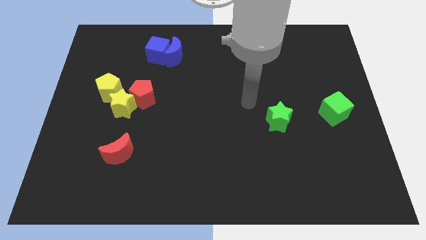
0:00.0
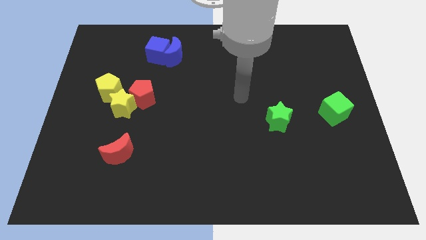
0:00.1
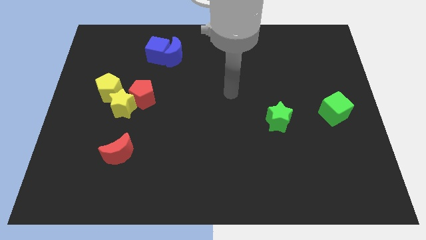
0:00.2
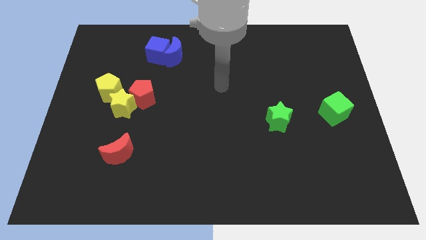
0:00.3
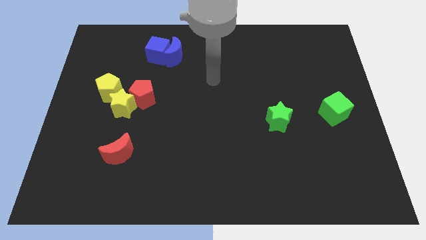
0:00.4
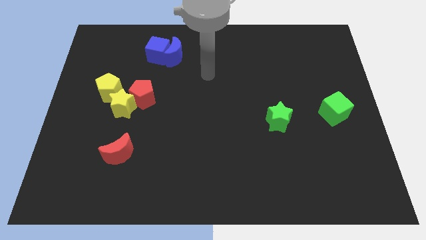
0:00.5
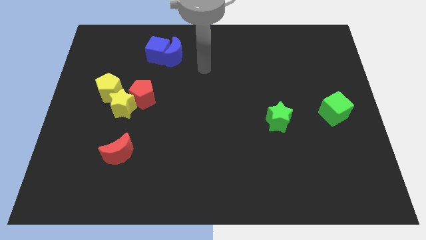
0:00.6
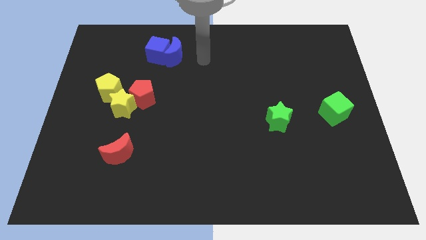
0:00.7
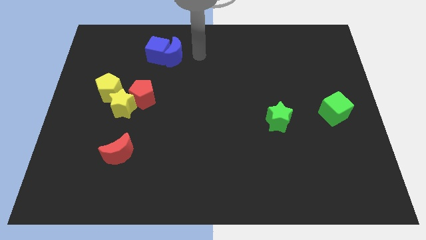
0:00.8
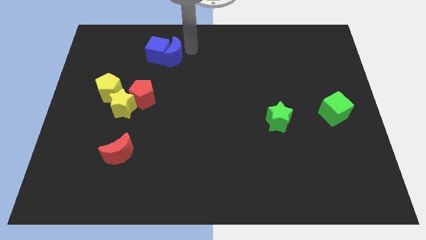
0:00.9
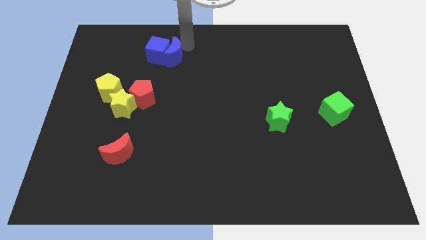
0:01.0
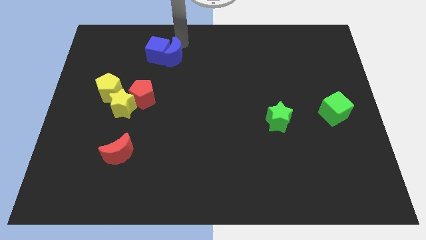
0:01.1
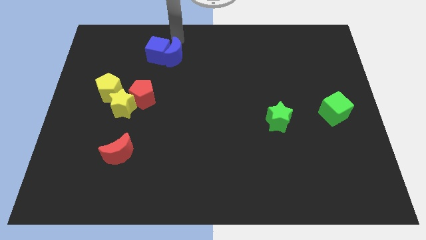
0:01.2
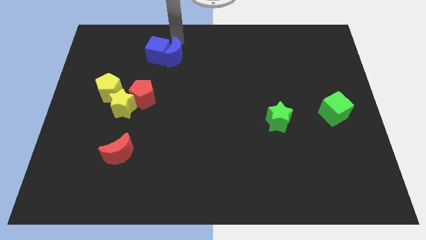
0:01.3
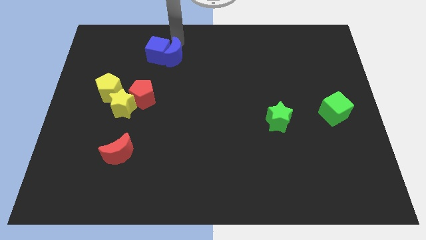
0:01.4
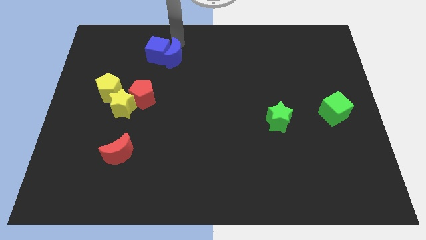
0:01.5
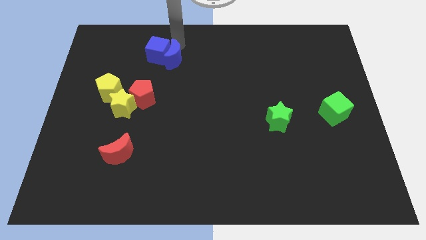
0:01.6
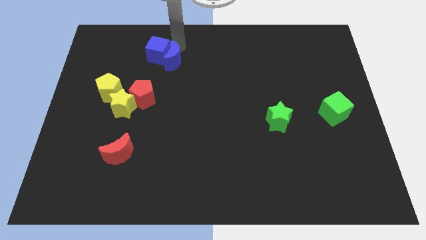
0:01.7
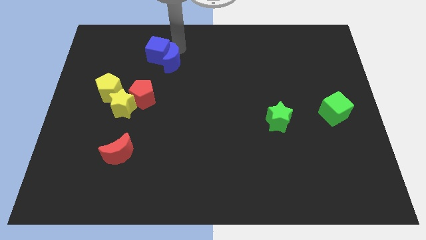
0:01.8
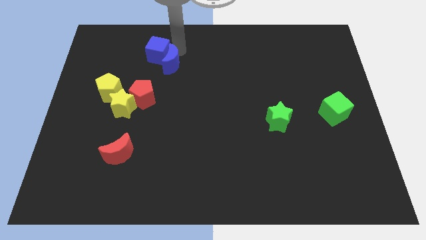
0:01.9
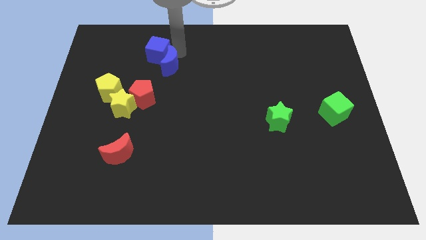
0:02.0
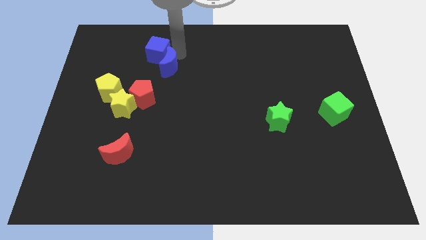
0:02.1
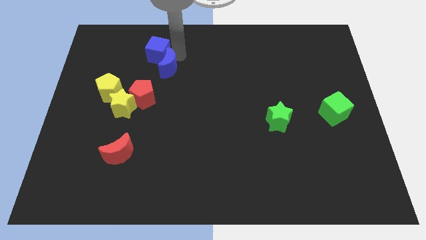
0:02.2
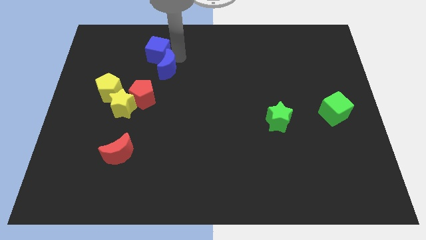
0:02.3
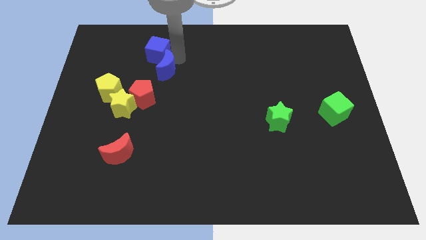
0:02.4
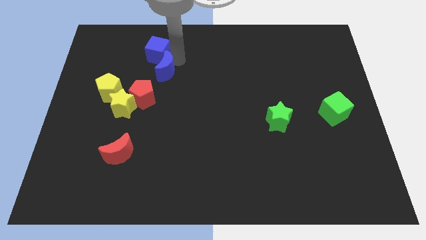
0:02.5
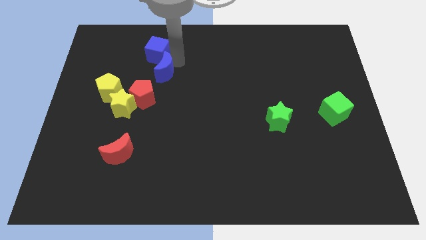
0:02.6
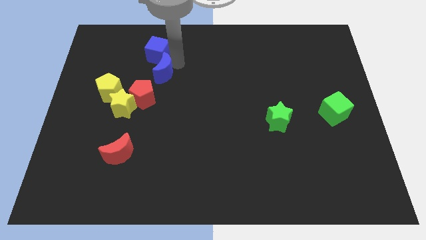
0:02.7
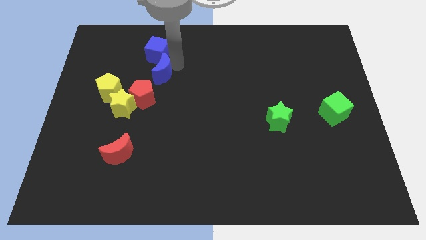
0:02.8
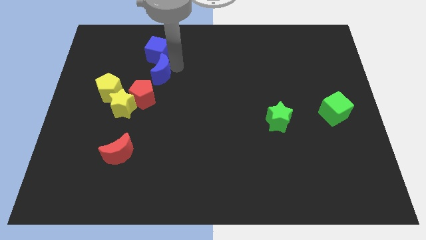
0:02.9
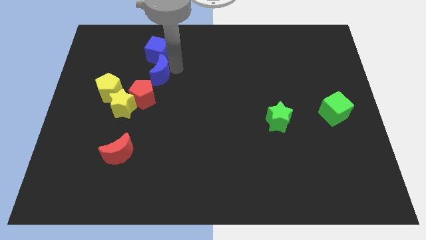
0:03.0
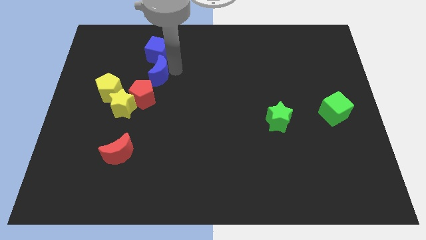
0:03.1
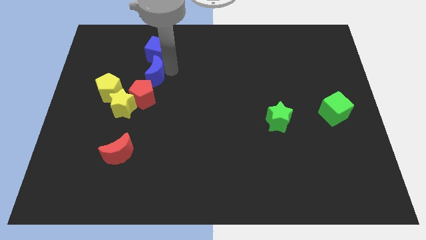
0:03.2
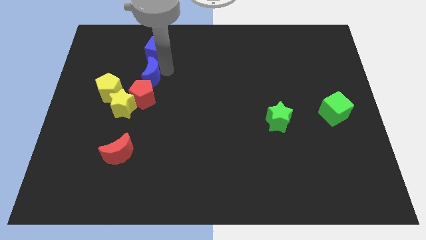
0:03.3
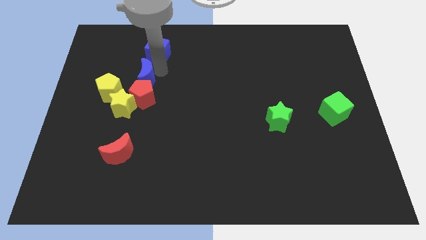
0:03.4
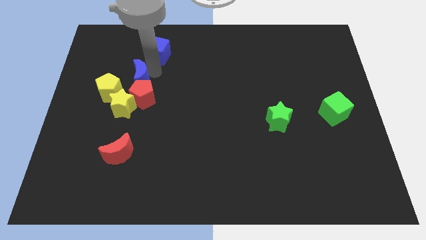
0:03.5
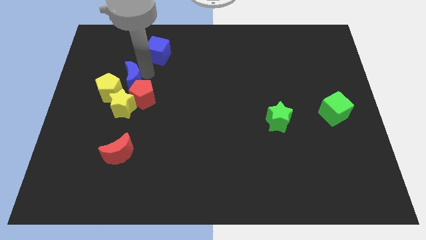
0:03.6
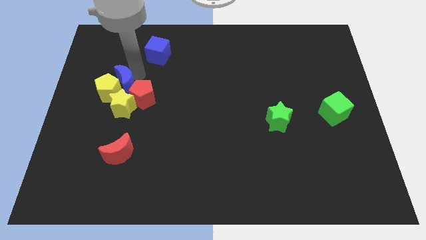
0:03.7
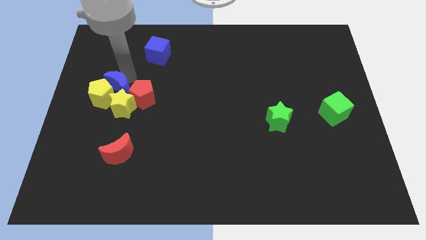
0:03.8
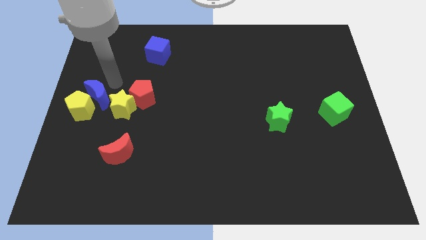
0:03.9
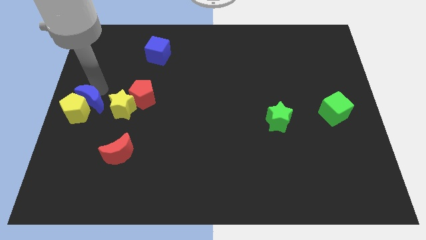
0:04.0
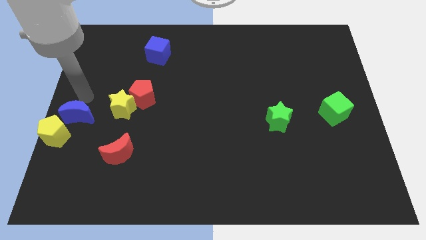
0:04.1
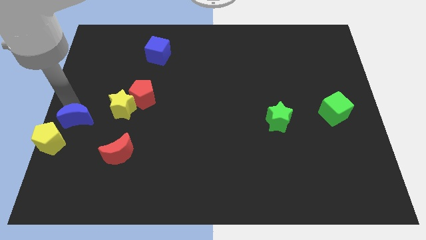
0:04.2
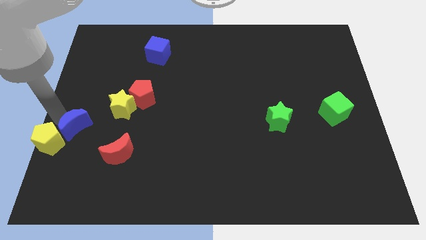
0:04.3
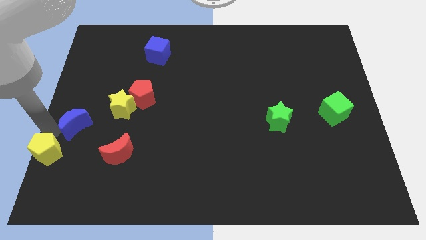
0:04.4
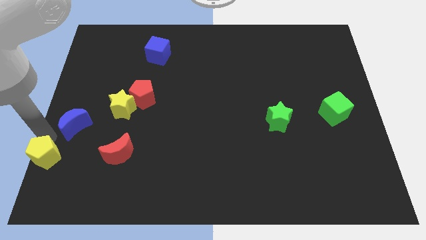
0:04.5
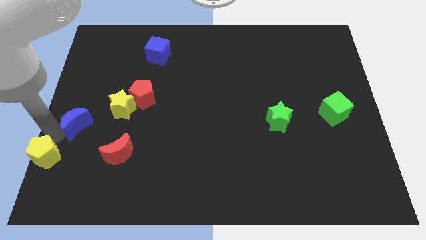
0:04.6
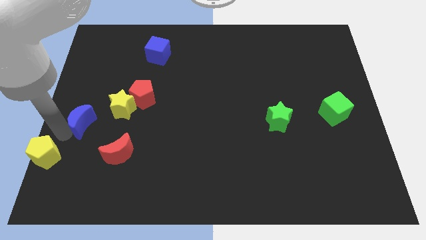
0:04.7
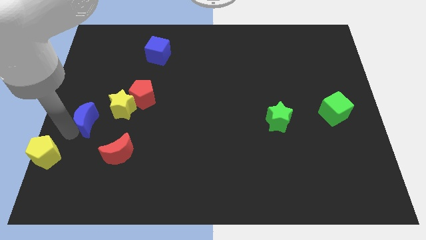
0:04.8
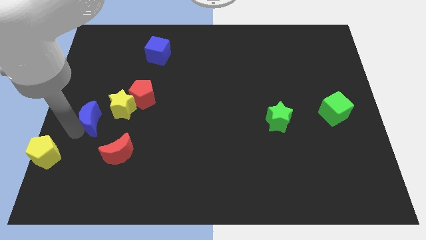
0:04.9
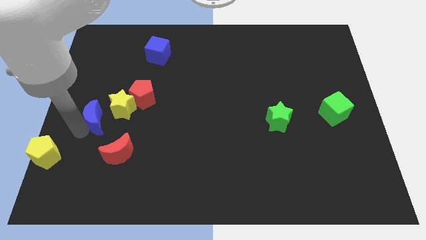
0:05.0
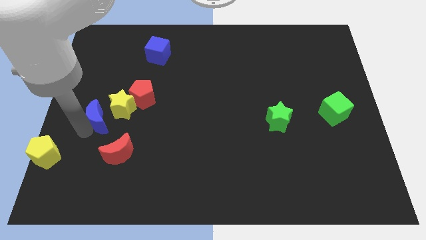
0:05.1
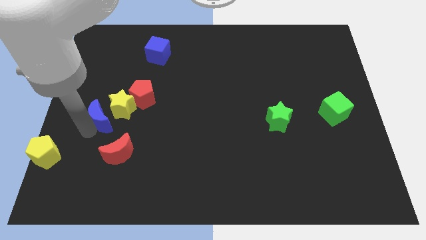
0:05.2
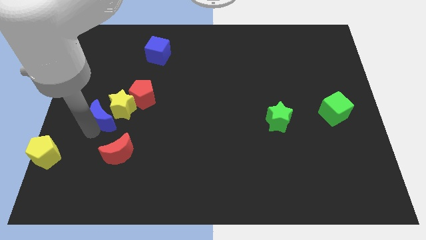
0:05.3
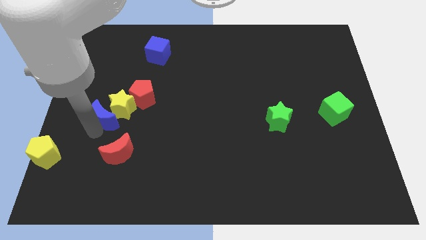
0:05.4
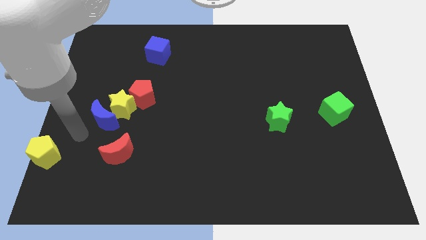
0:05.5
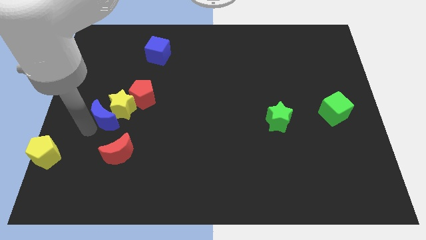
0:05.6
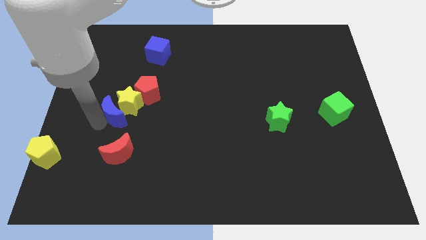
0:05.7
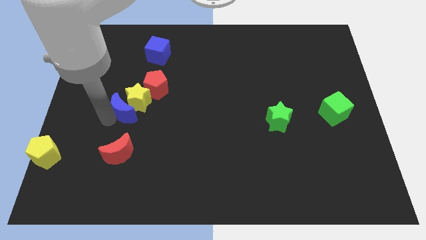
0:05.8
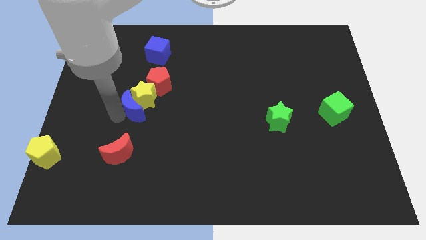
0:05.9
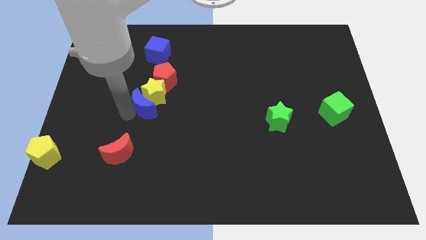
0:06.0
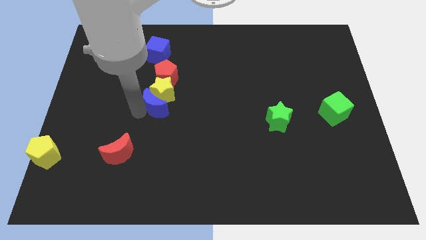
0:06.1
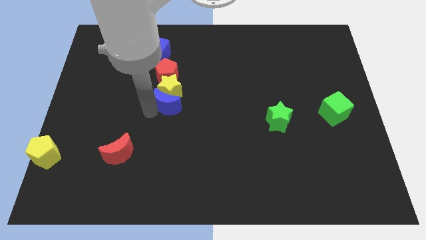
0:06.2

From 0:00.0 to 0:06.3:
push the blue moon to the middle

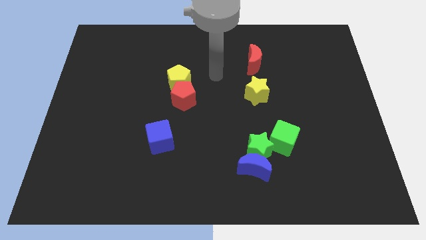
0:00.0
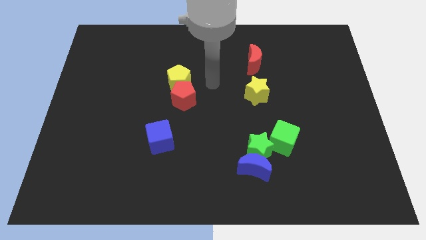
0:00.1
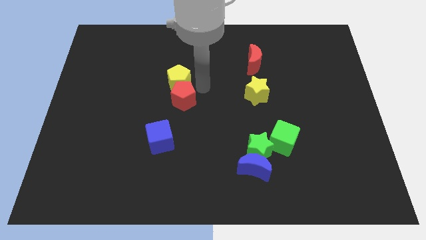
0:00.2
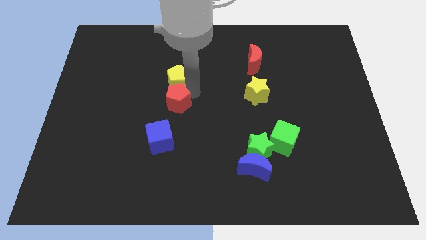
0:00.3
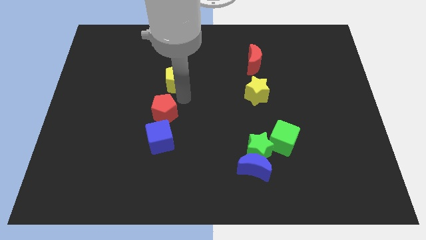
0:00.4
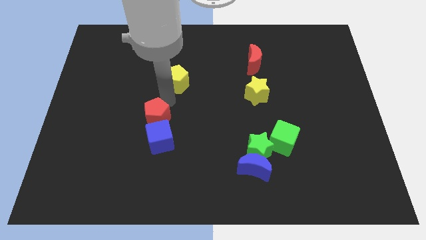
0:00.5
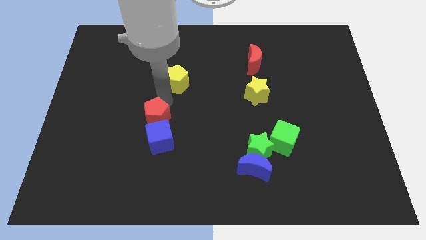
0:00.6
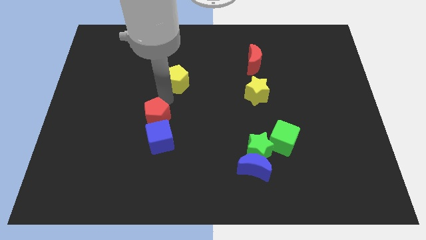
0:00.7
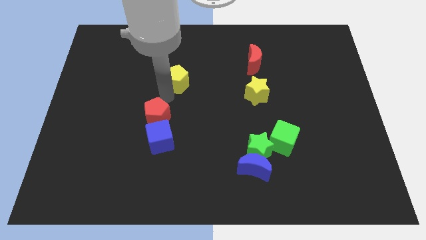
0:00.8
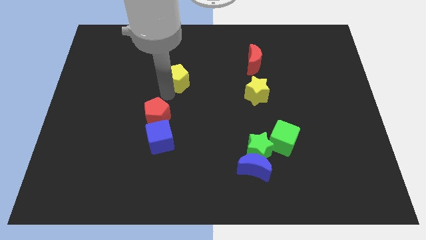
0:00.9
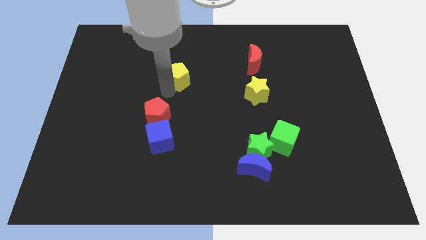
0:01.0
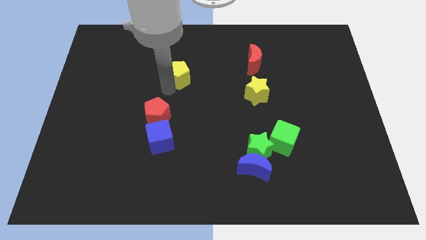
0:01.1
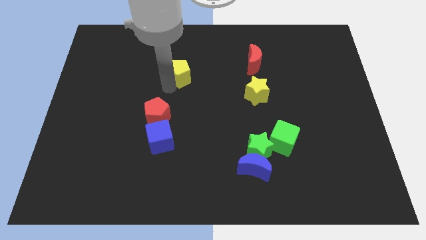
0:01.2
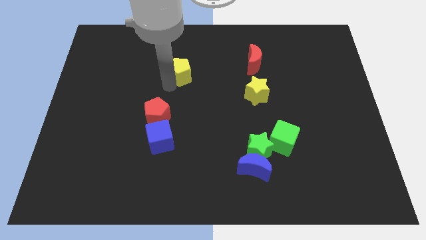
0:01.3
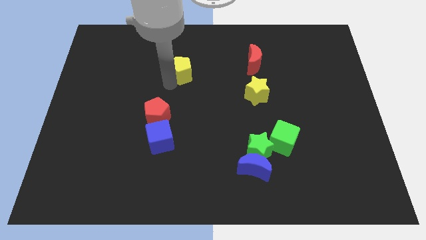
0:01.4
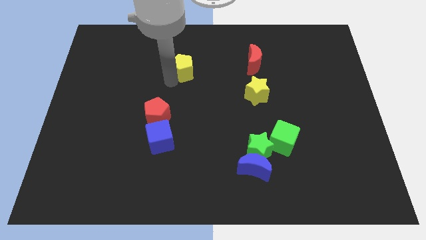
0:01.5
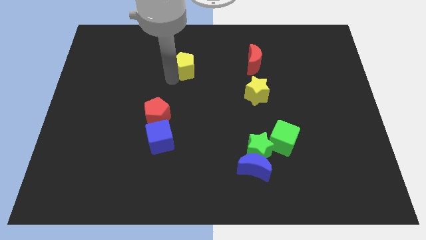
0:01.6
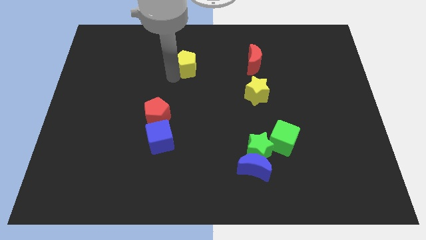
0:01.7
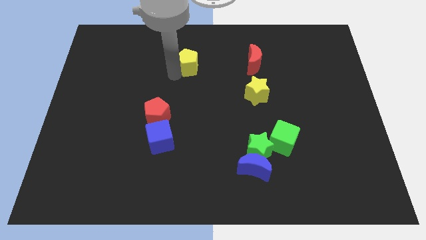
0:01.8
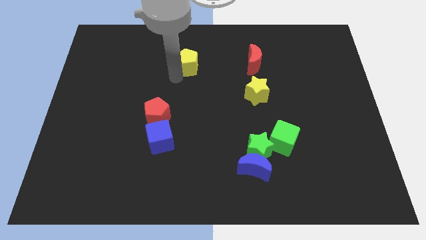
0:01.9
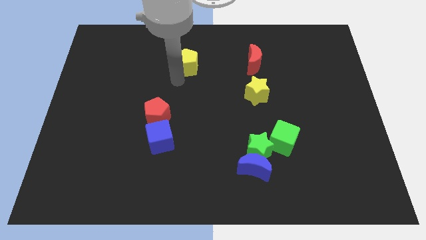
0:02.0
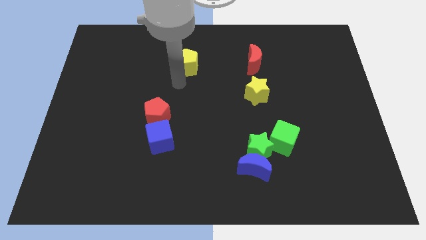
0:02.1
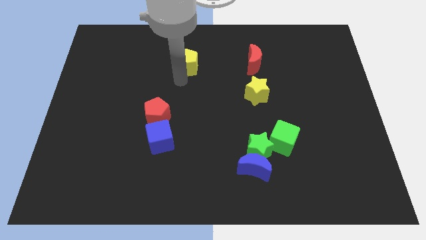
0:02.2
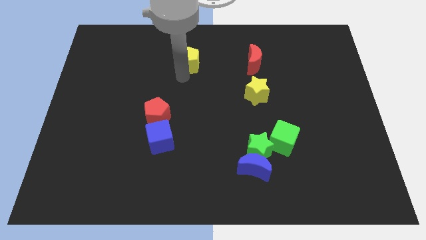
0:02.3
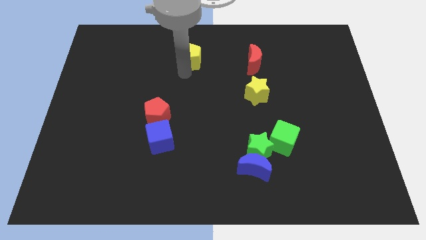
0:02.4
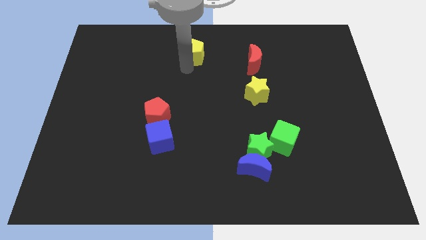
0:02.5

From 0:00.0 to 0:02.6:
put the yellow pentagon to the top side
